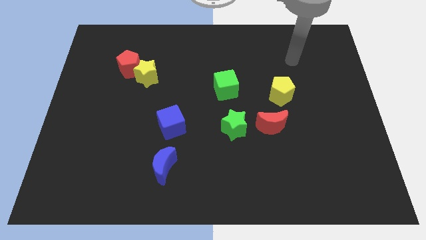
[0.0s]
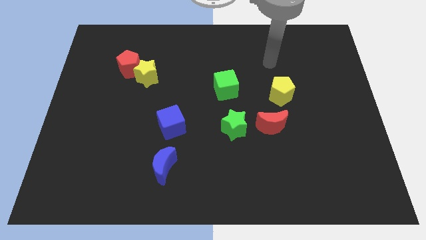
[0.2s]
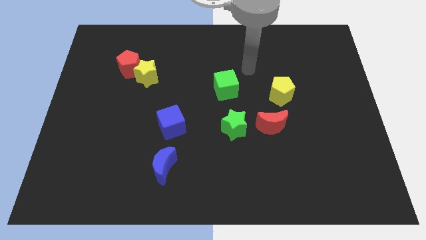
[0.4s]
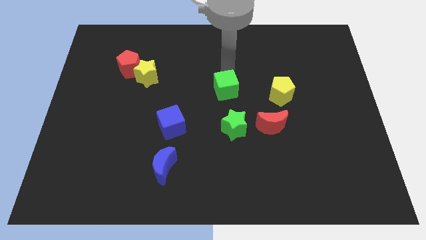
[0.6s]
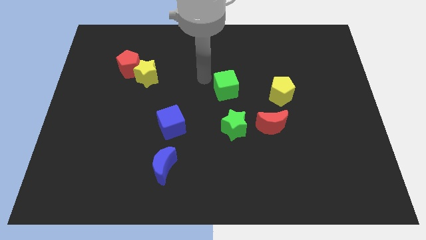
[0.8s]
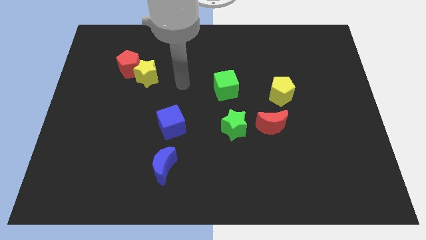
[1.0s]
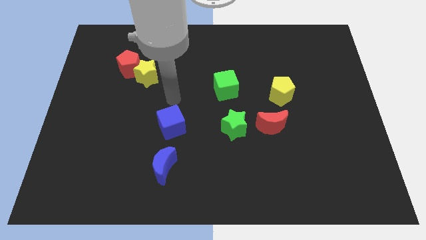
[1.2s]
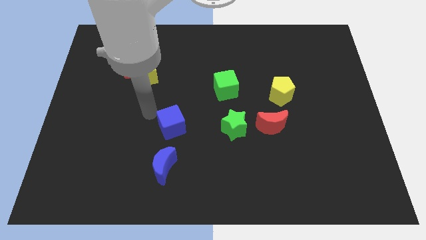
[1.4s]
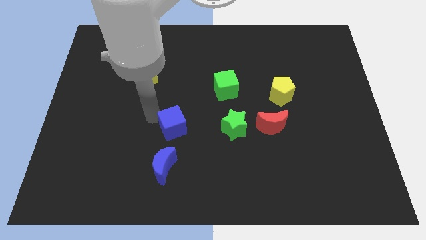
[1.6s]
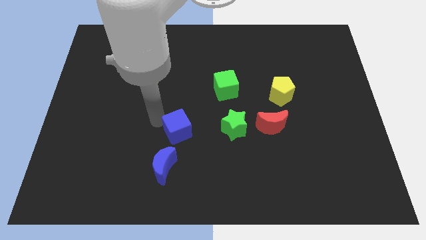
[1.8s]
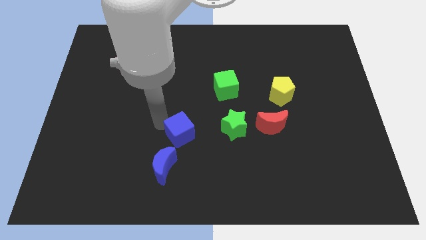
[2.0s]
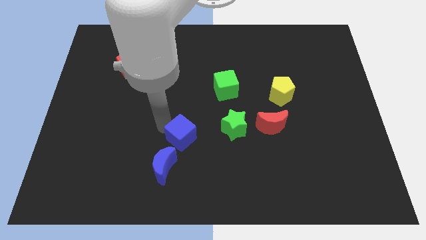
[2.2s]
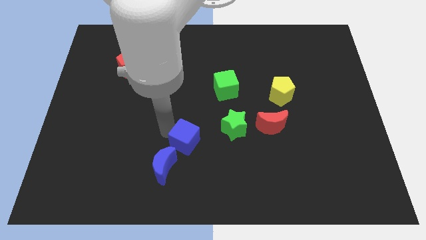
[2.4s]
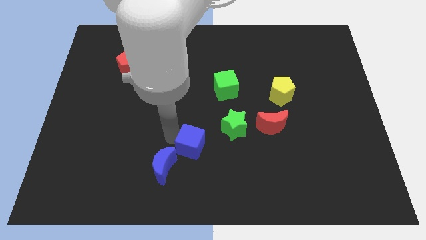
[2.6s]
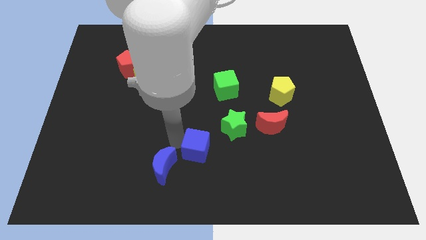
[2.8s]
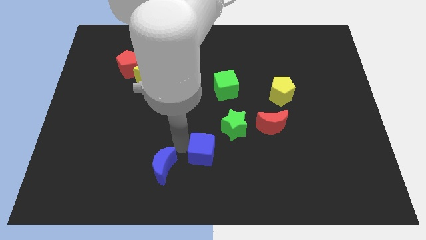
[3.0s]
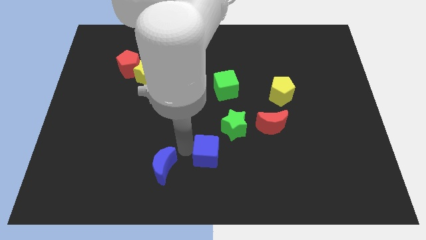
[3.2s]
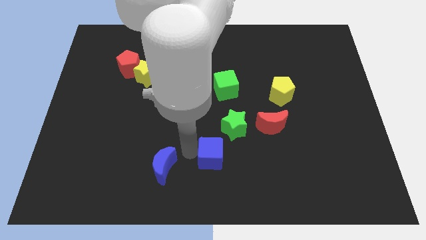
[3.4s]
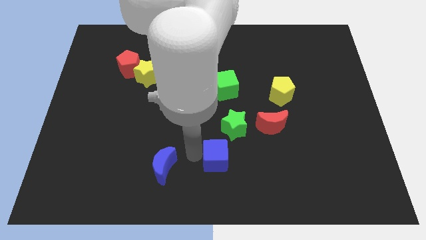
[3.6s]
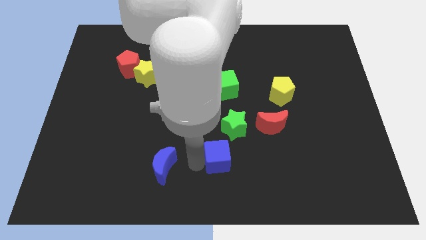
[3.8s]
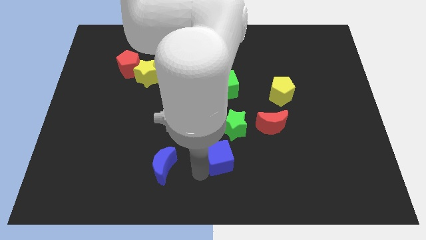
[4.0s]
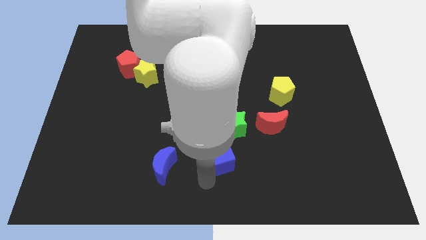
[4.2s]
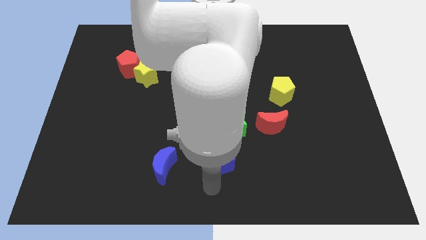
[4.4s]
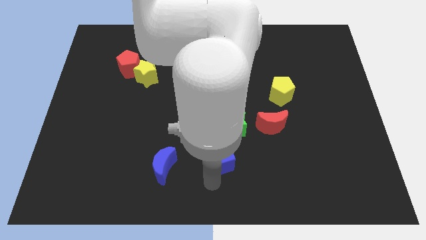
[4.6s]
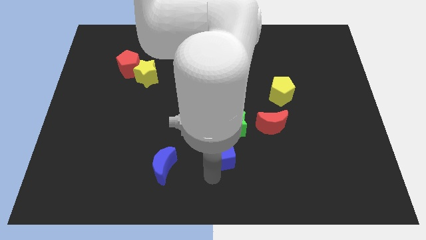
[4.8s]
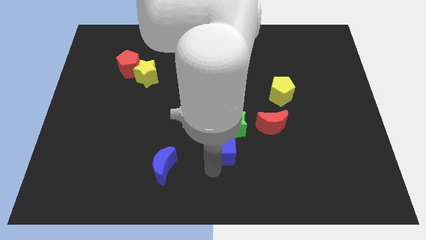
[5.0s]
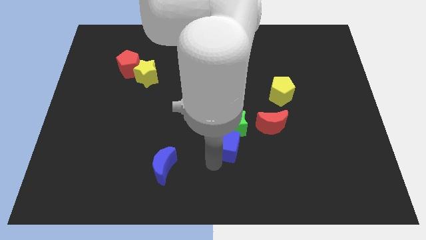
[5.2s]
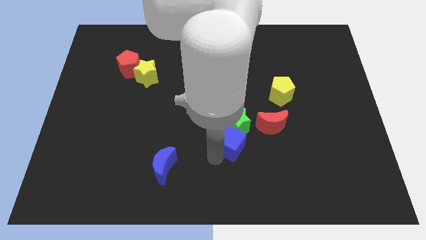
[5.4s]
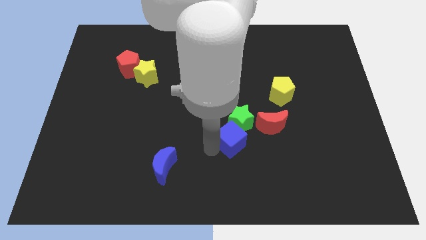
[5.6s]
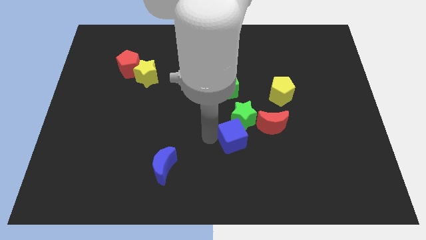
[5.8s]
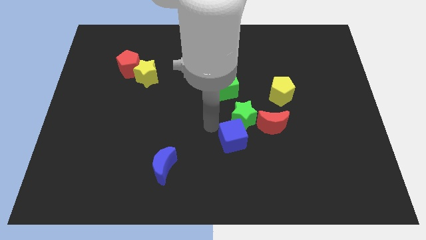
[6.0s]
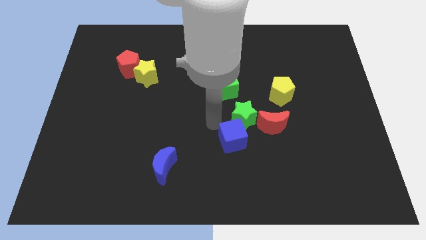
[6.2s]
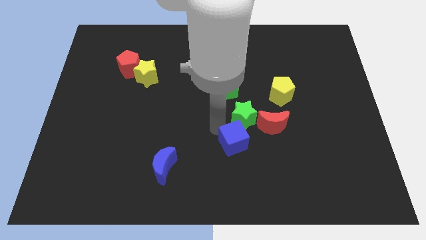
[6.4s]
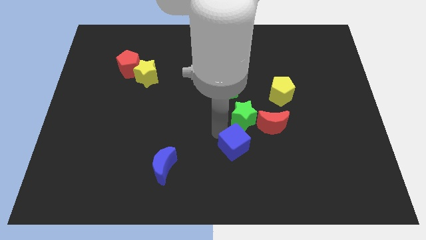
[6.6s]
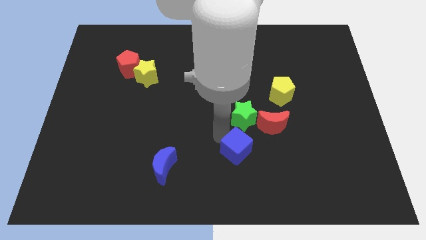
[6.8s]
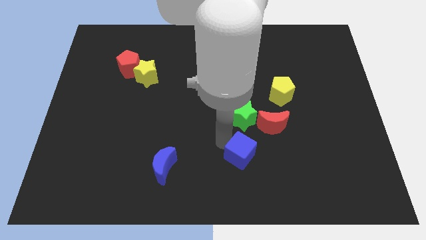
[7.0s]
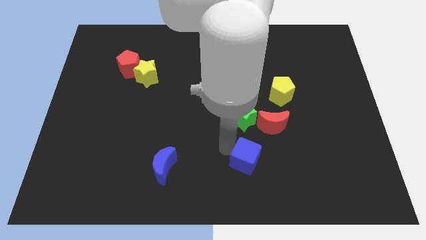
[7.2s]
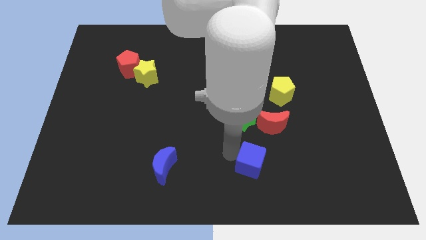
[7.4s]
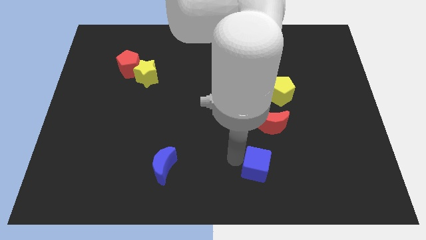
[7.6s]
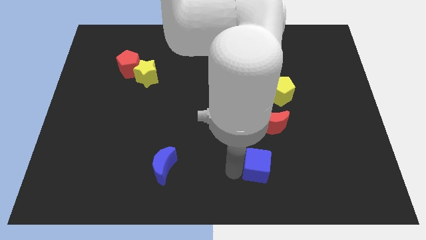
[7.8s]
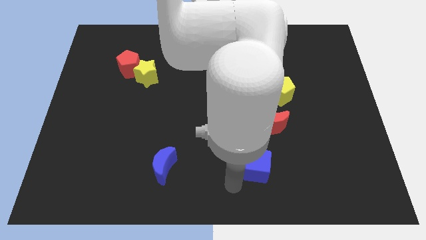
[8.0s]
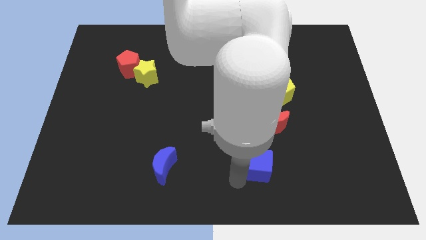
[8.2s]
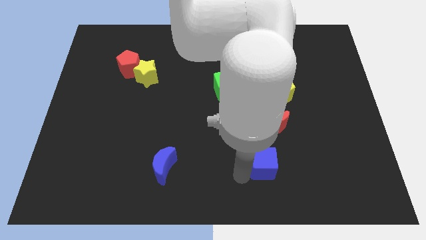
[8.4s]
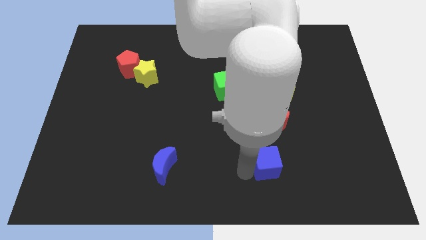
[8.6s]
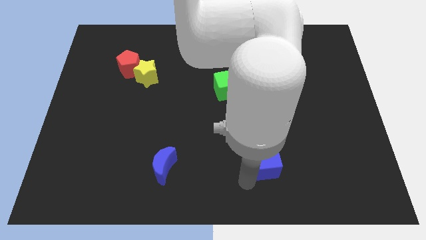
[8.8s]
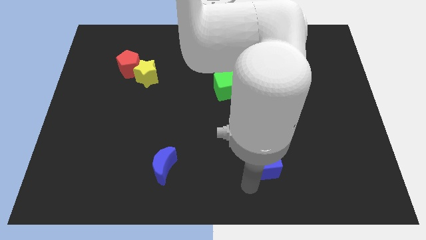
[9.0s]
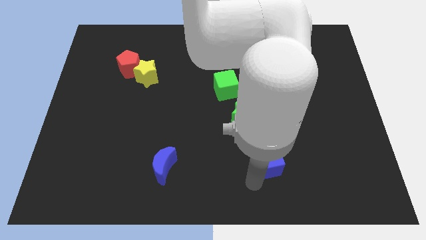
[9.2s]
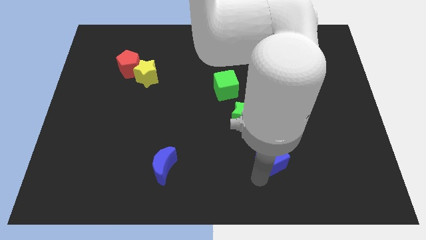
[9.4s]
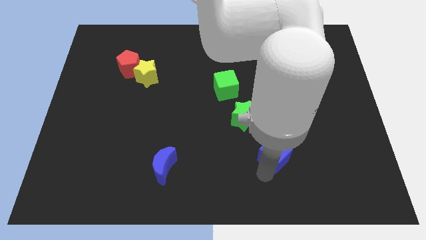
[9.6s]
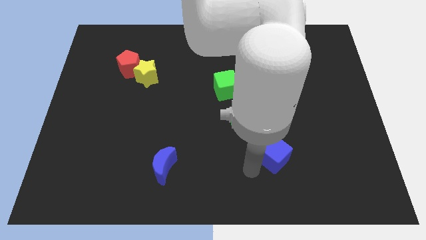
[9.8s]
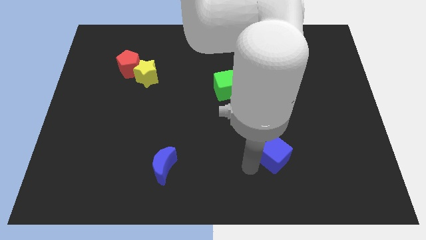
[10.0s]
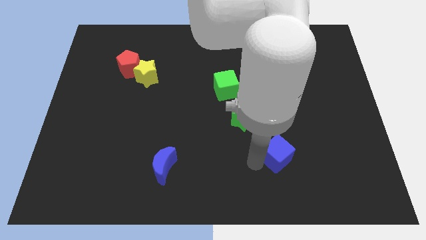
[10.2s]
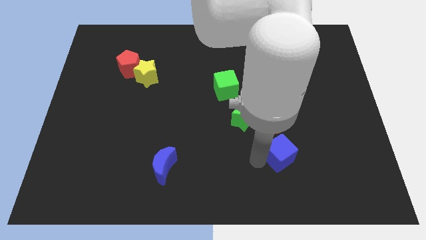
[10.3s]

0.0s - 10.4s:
slide the blue cube to the bottom right of the red moon

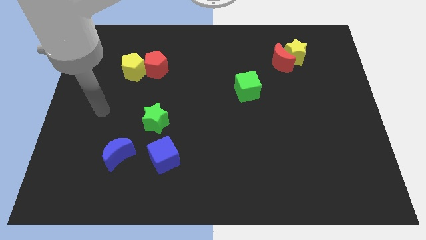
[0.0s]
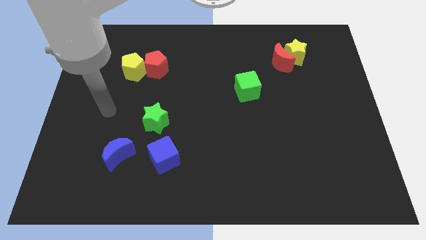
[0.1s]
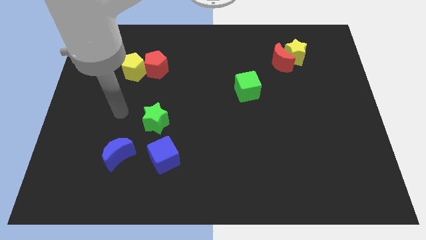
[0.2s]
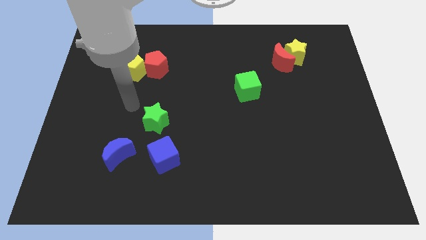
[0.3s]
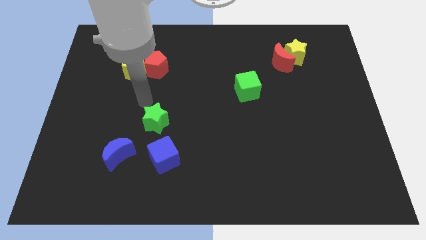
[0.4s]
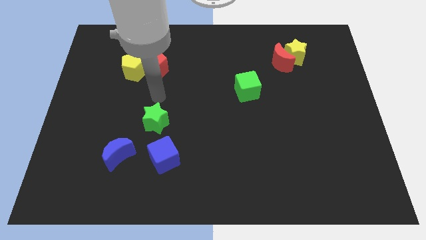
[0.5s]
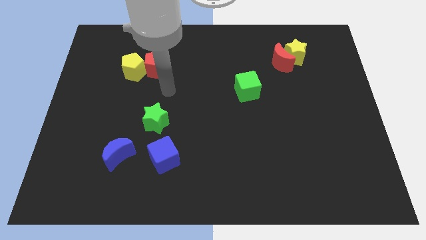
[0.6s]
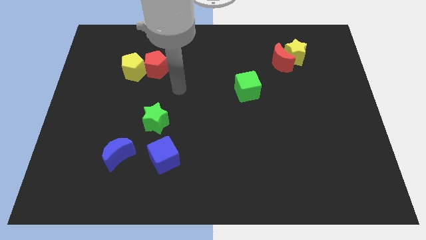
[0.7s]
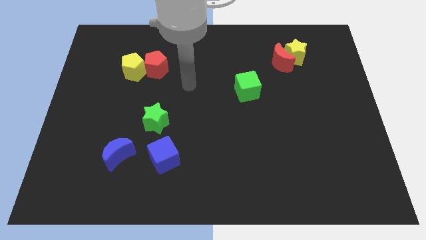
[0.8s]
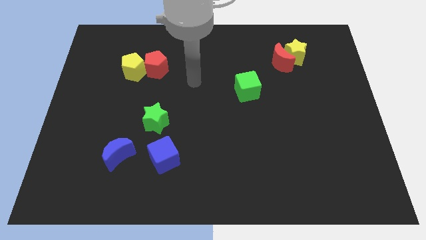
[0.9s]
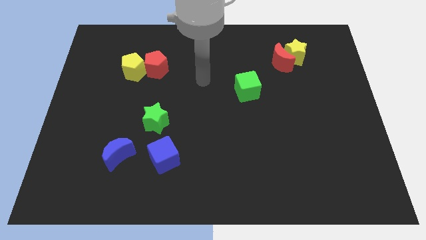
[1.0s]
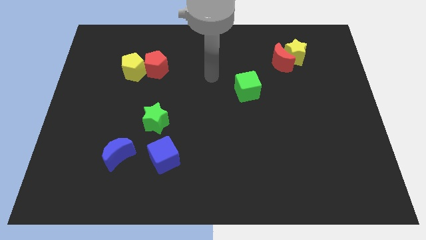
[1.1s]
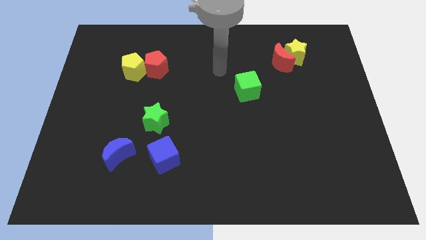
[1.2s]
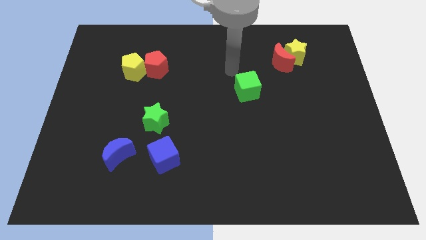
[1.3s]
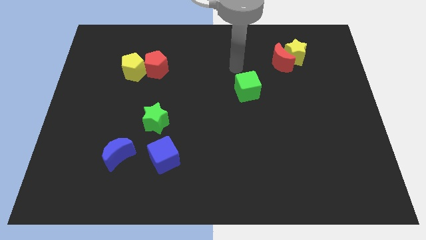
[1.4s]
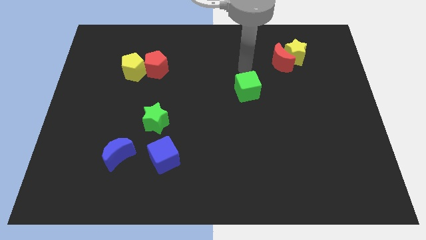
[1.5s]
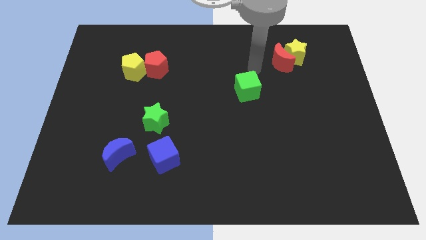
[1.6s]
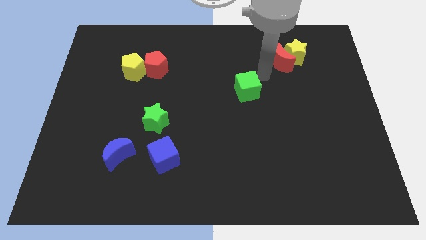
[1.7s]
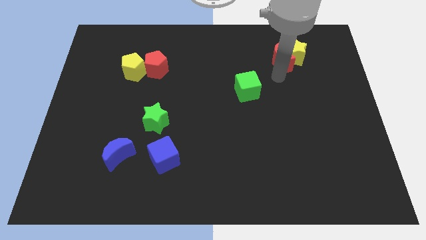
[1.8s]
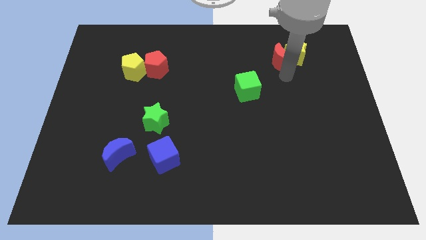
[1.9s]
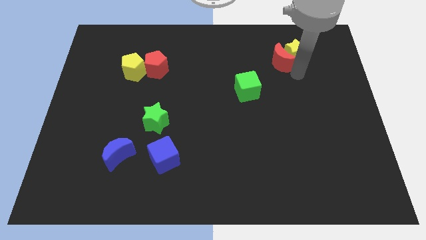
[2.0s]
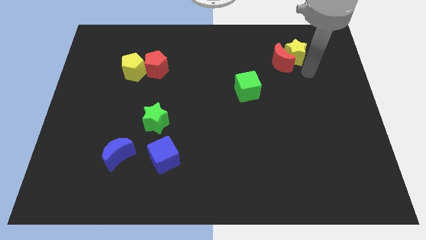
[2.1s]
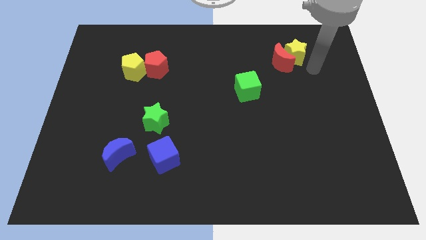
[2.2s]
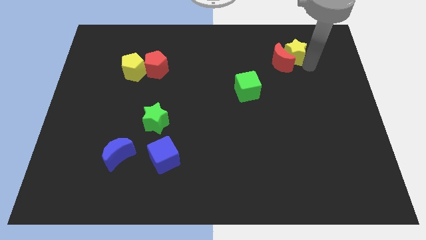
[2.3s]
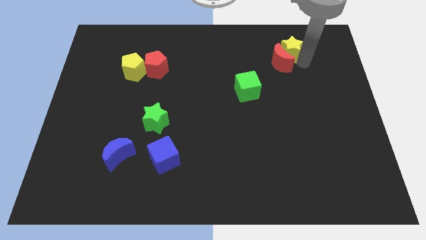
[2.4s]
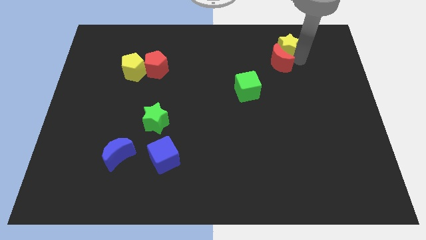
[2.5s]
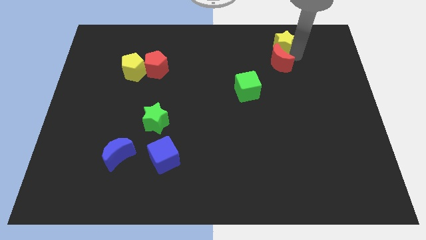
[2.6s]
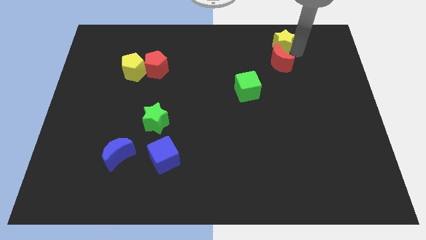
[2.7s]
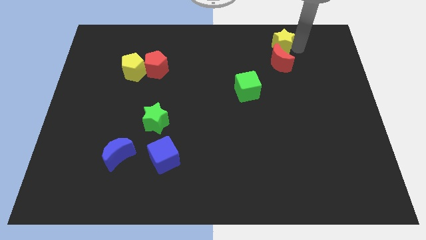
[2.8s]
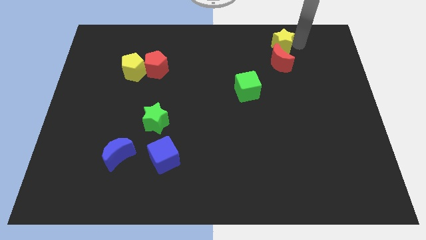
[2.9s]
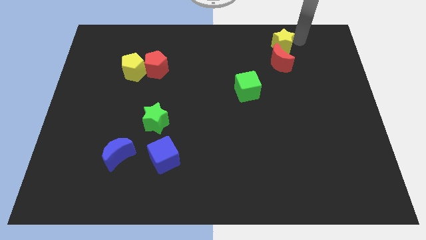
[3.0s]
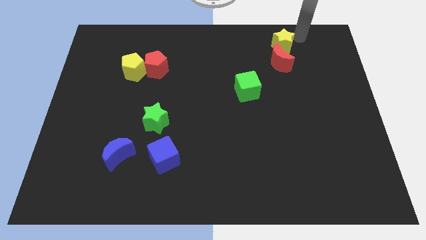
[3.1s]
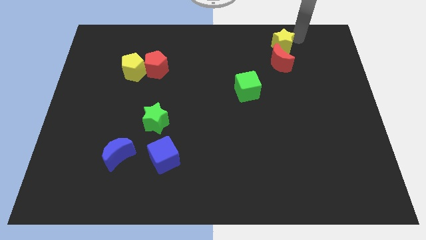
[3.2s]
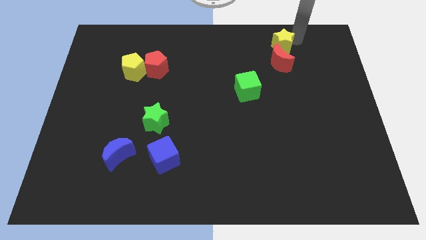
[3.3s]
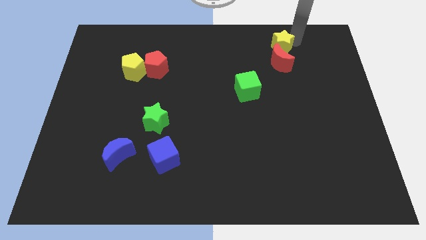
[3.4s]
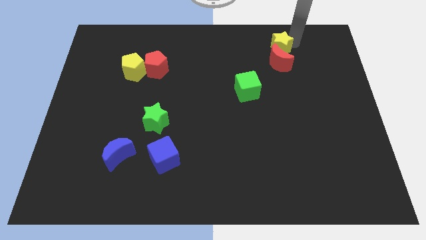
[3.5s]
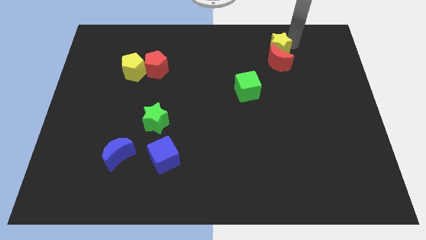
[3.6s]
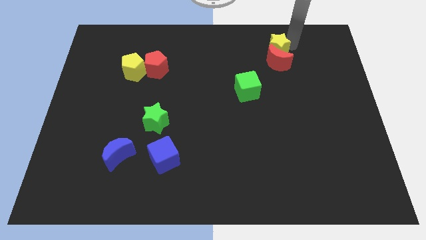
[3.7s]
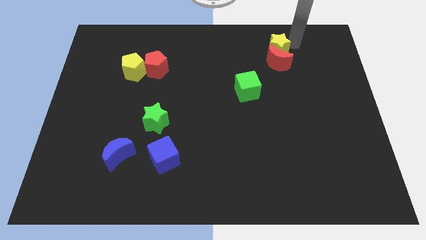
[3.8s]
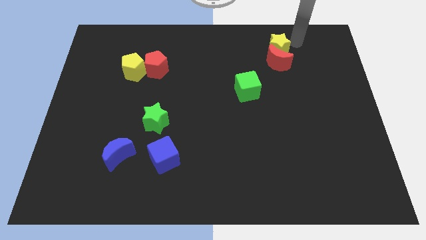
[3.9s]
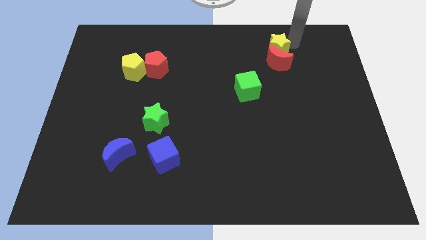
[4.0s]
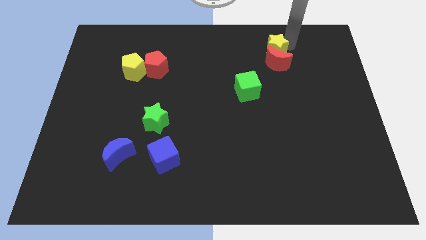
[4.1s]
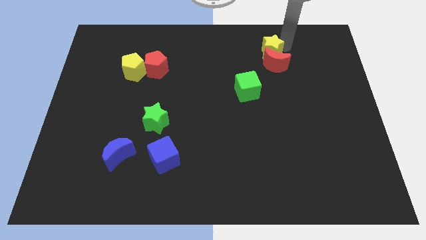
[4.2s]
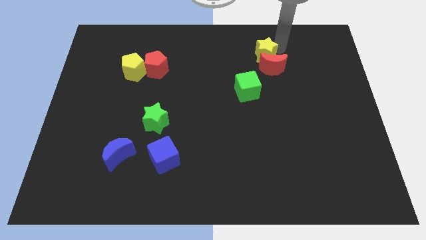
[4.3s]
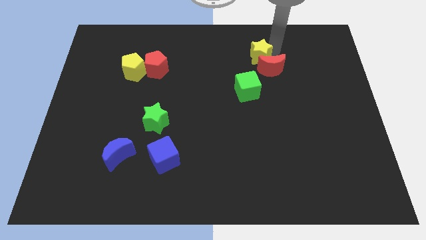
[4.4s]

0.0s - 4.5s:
move the yellow star above the green cube
